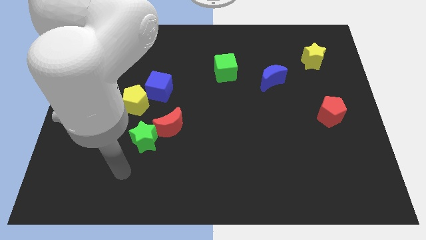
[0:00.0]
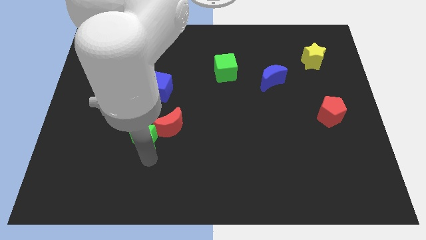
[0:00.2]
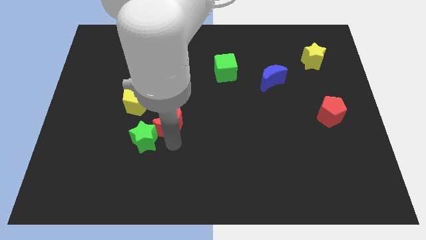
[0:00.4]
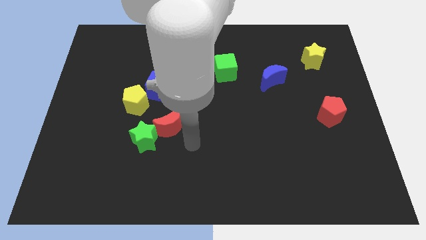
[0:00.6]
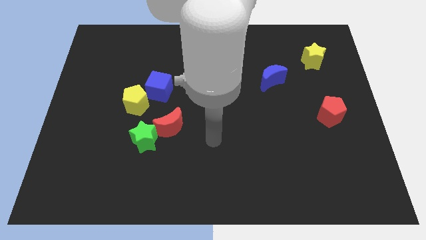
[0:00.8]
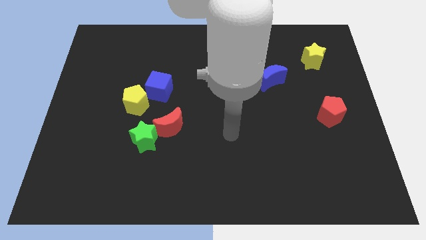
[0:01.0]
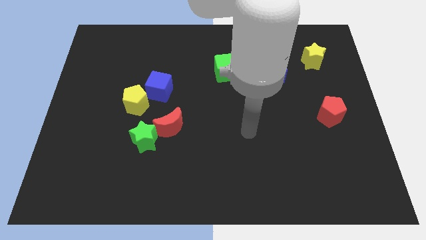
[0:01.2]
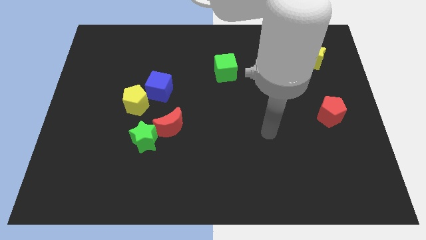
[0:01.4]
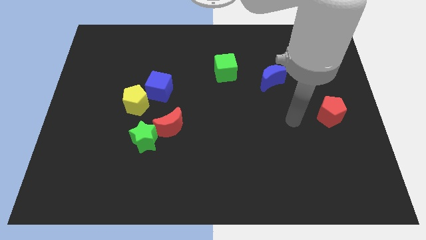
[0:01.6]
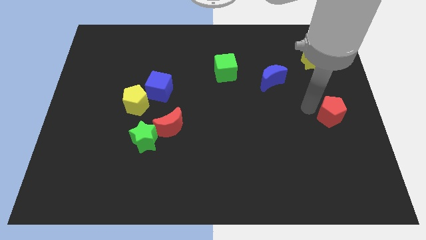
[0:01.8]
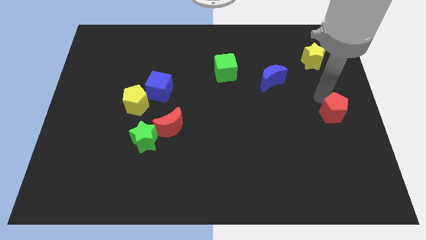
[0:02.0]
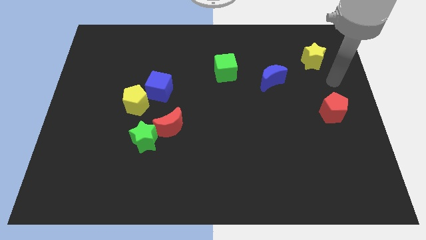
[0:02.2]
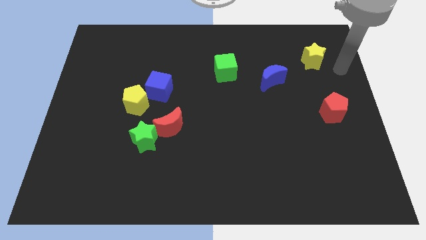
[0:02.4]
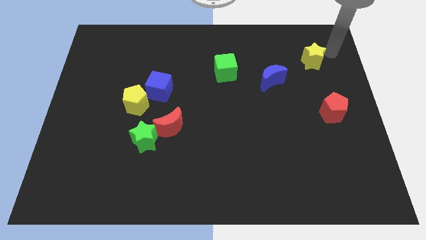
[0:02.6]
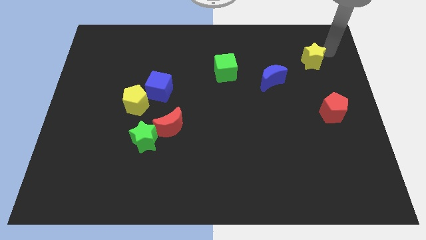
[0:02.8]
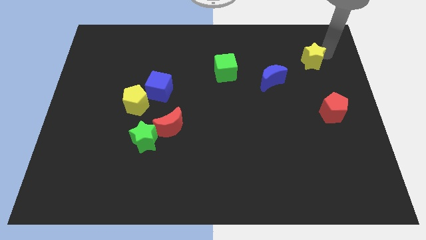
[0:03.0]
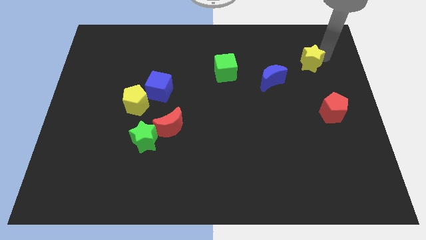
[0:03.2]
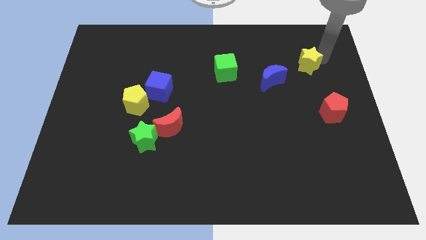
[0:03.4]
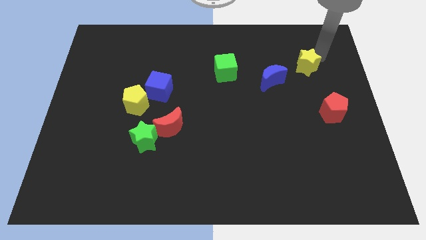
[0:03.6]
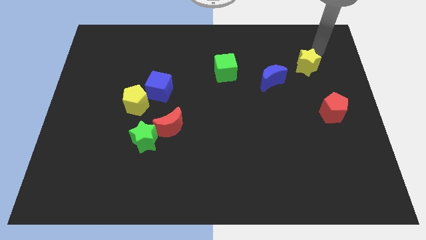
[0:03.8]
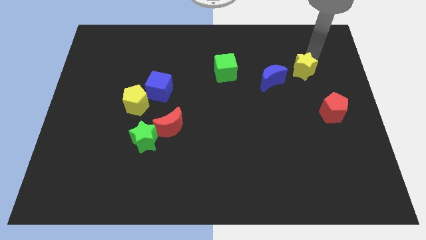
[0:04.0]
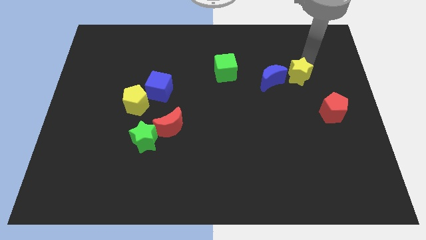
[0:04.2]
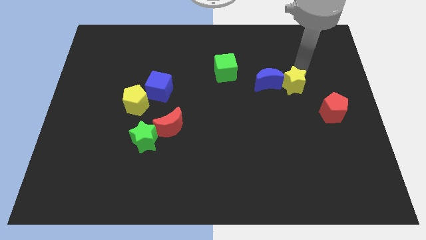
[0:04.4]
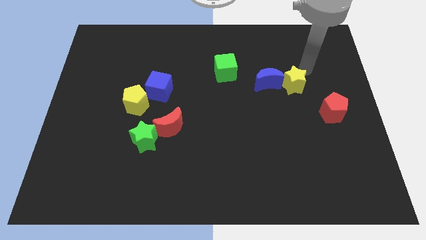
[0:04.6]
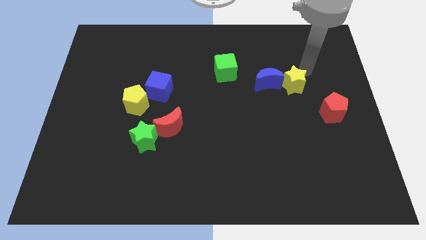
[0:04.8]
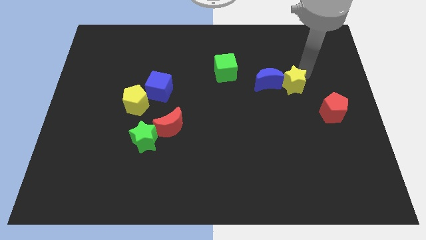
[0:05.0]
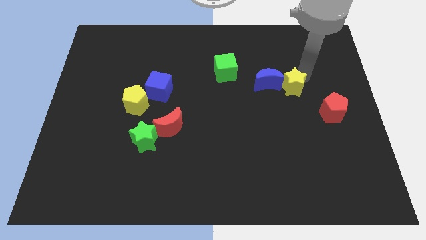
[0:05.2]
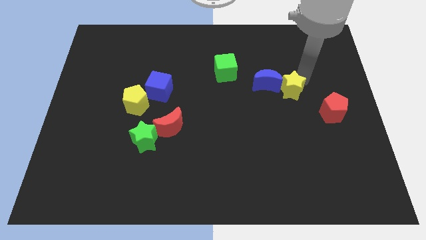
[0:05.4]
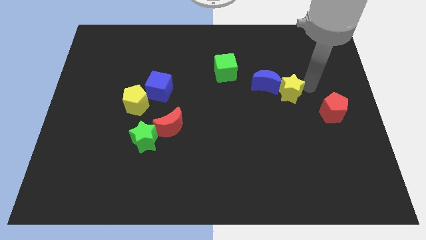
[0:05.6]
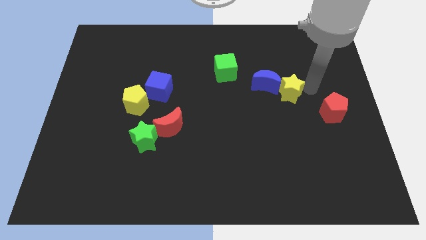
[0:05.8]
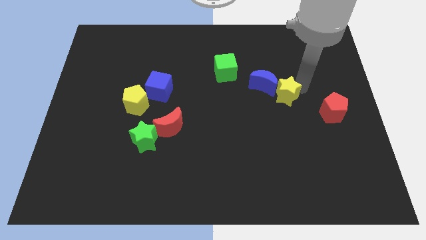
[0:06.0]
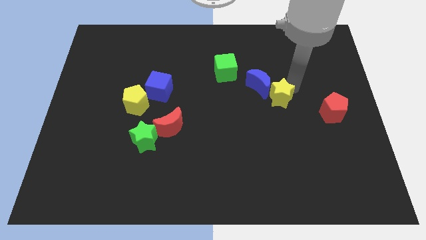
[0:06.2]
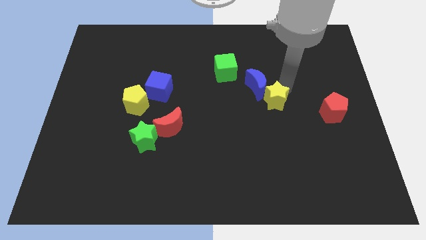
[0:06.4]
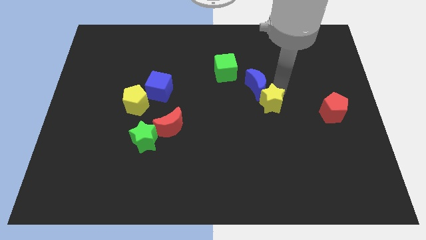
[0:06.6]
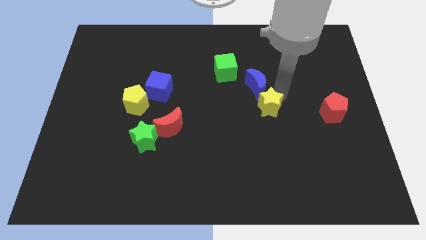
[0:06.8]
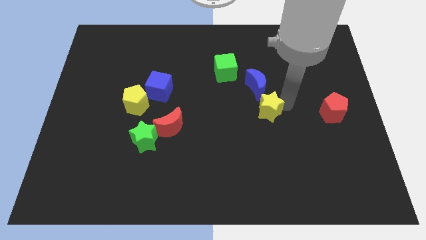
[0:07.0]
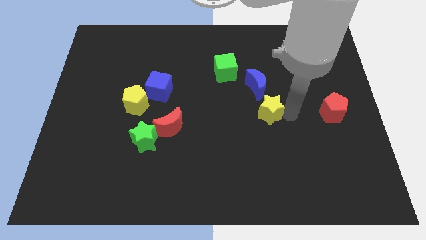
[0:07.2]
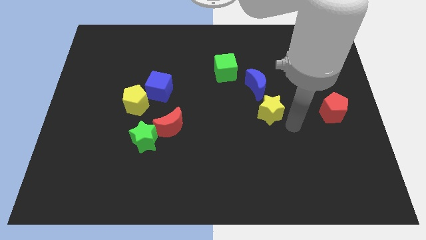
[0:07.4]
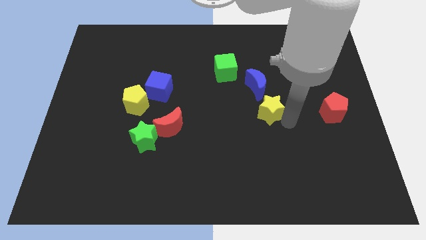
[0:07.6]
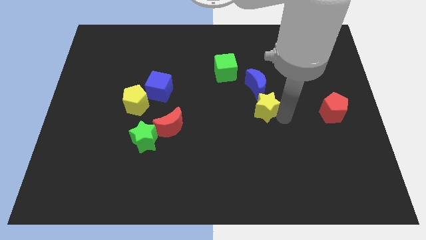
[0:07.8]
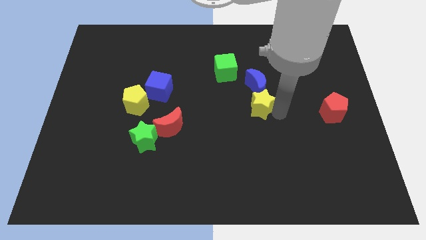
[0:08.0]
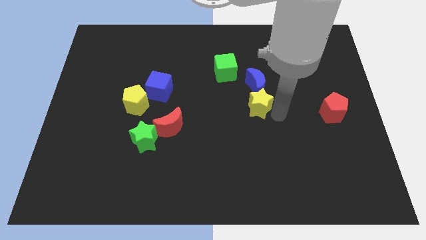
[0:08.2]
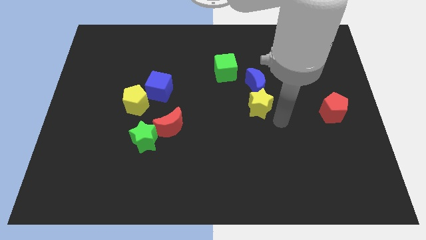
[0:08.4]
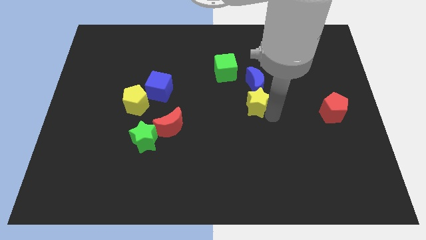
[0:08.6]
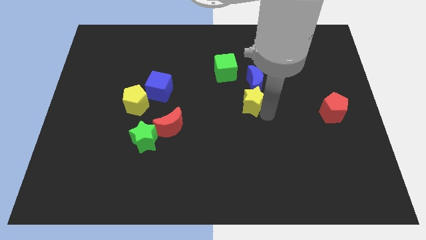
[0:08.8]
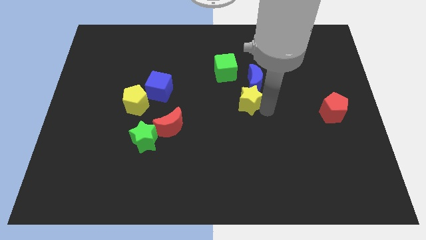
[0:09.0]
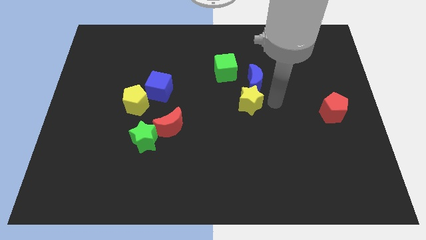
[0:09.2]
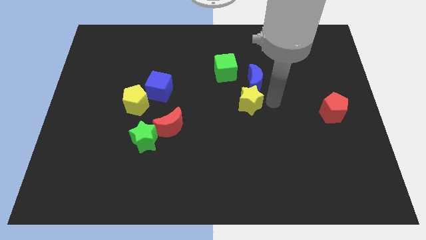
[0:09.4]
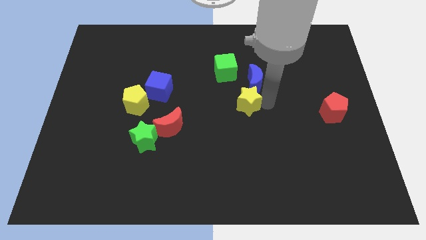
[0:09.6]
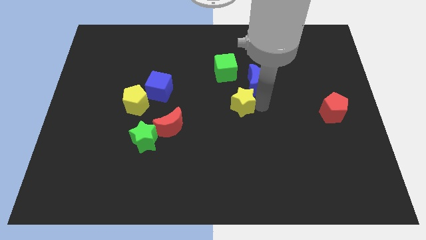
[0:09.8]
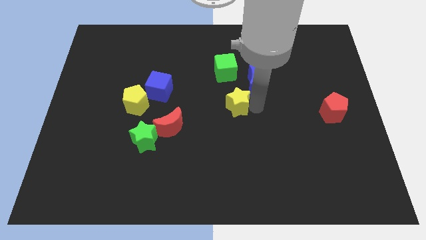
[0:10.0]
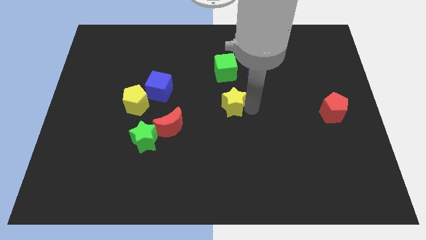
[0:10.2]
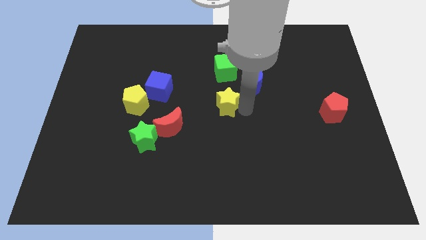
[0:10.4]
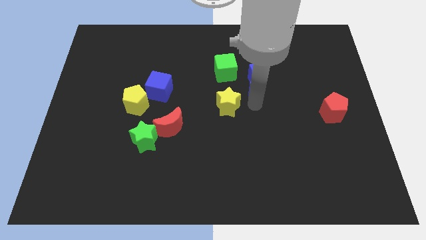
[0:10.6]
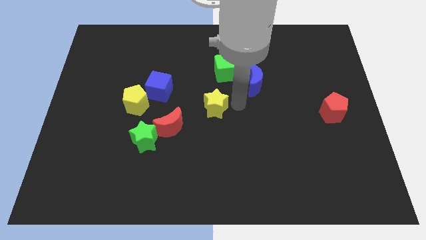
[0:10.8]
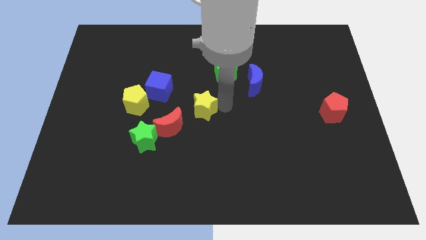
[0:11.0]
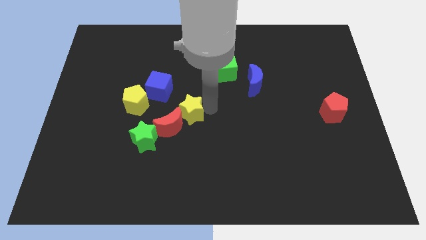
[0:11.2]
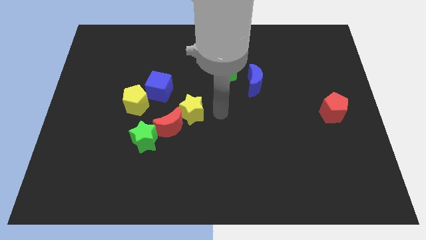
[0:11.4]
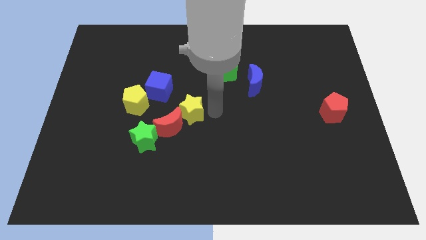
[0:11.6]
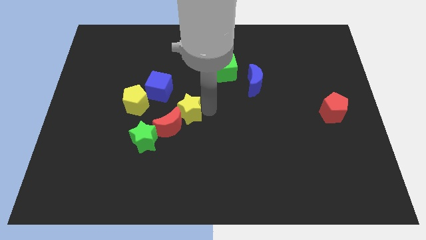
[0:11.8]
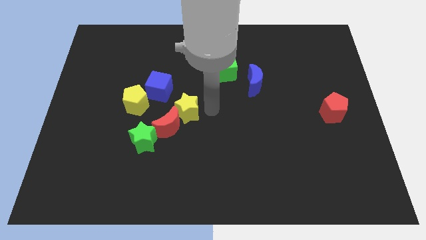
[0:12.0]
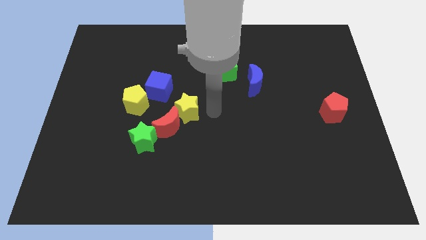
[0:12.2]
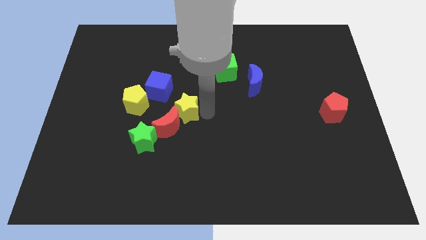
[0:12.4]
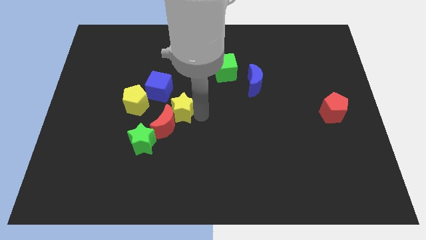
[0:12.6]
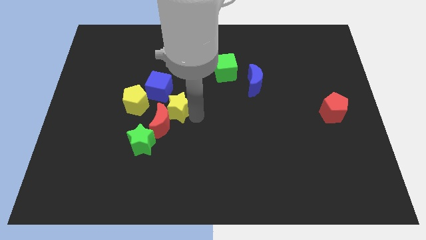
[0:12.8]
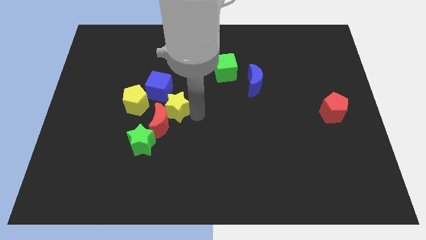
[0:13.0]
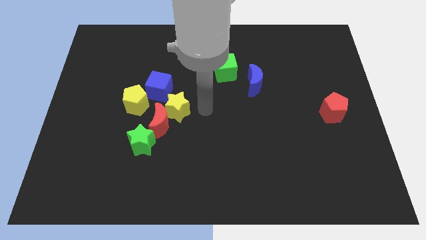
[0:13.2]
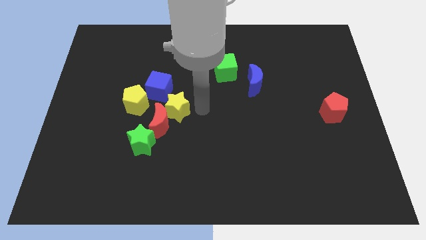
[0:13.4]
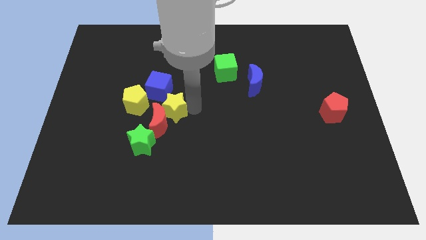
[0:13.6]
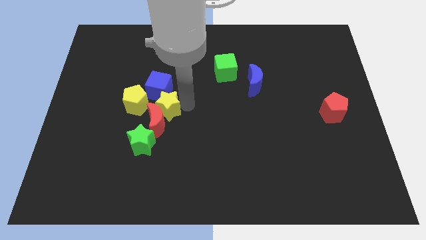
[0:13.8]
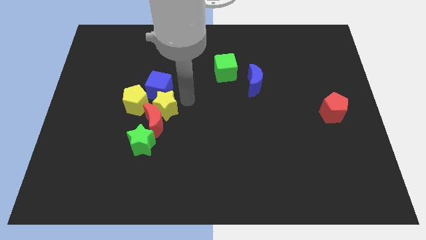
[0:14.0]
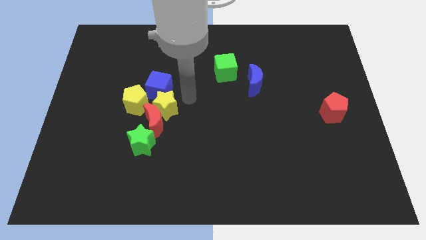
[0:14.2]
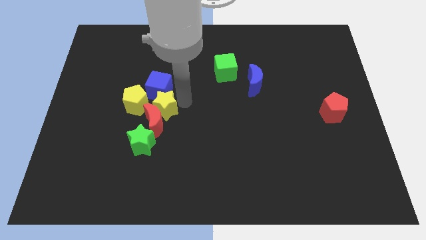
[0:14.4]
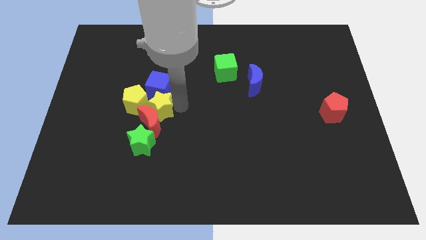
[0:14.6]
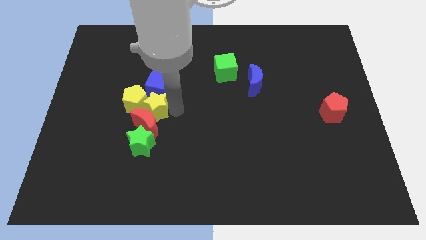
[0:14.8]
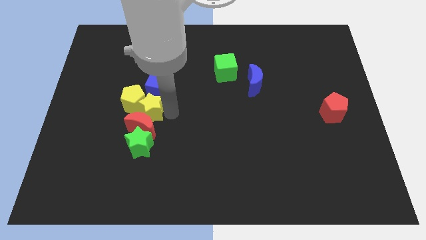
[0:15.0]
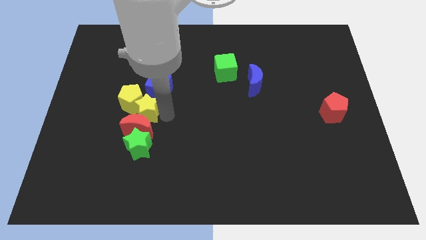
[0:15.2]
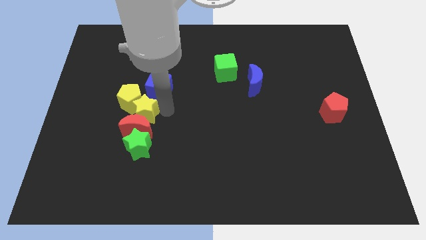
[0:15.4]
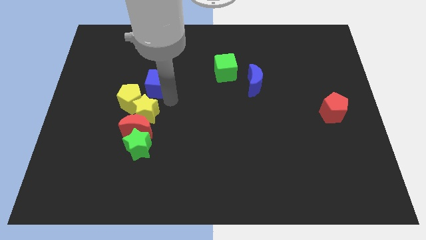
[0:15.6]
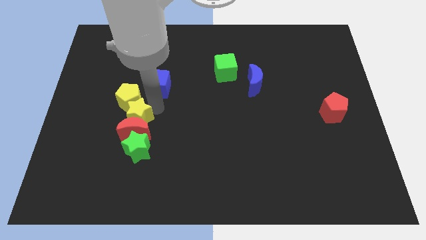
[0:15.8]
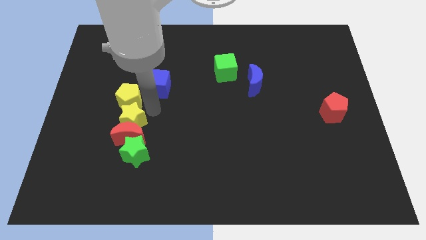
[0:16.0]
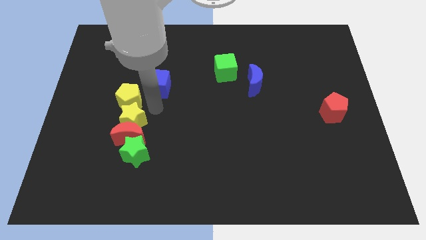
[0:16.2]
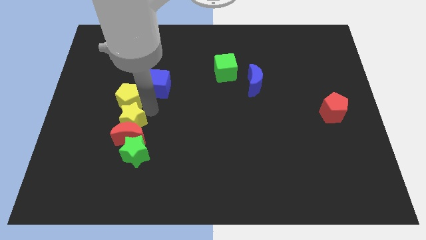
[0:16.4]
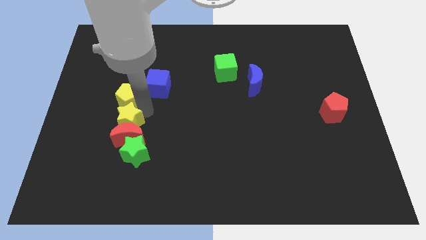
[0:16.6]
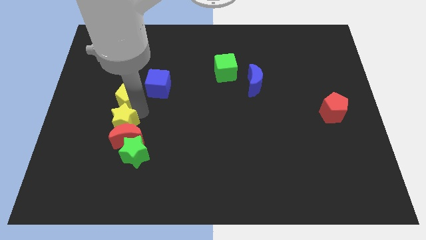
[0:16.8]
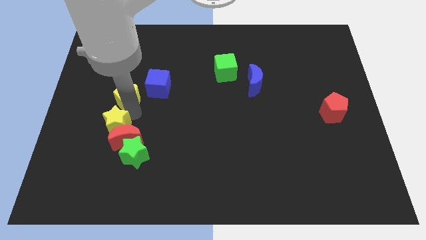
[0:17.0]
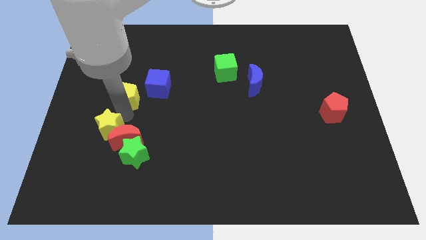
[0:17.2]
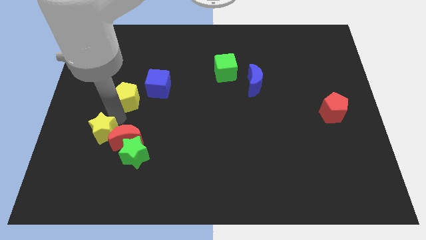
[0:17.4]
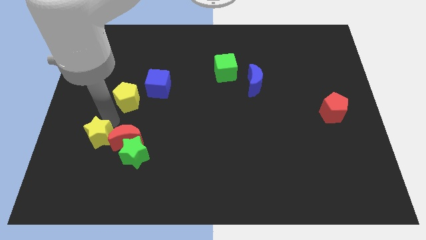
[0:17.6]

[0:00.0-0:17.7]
push the yellow star to the left side of the green star
